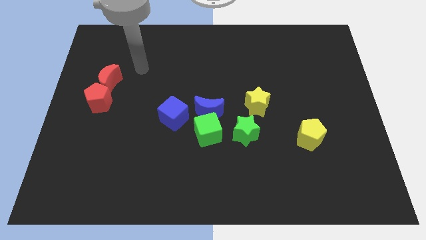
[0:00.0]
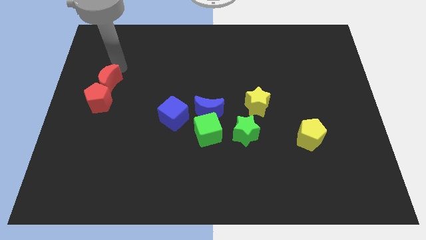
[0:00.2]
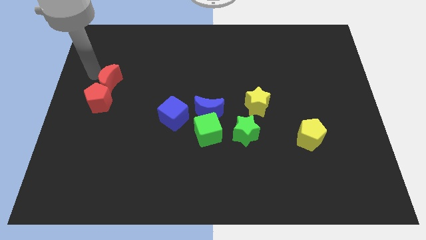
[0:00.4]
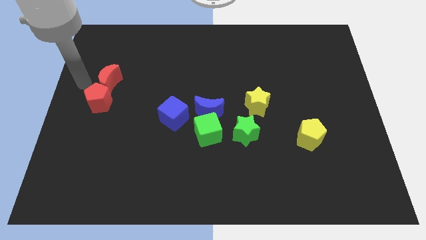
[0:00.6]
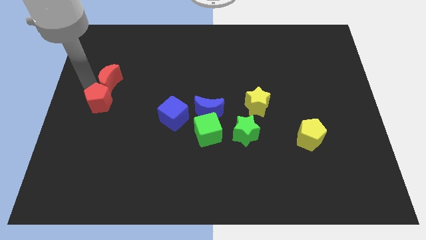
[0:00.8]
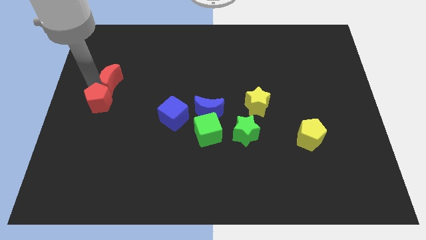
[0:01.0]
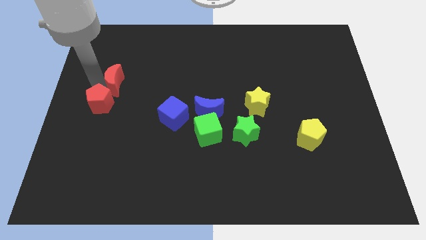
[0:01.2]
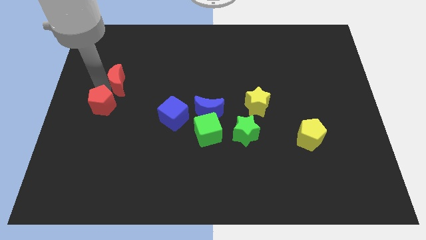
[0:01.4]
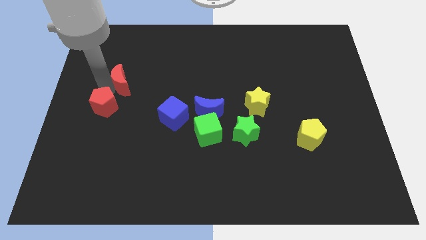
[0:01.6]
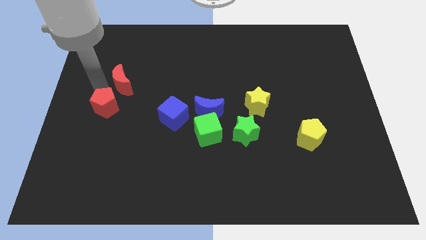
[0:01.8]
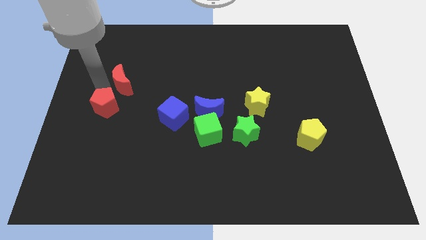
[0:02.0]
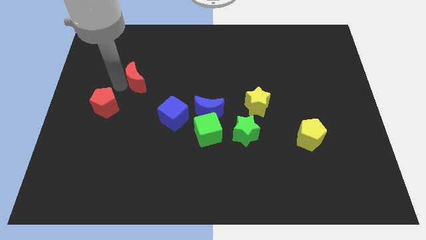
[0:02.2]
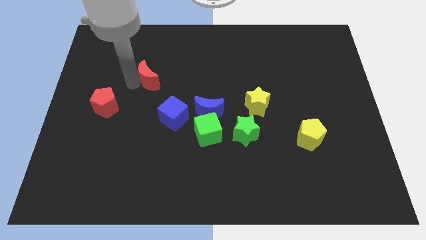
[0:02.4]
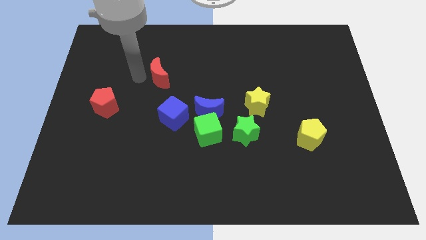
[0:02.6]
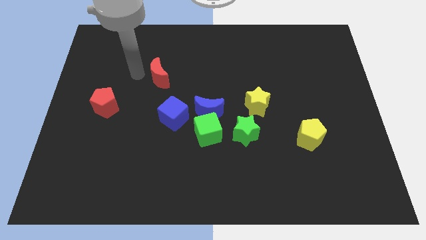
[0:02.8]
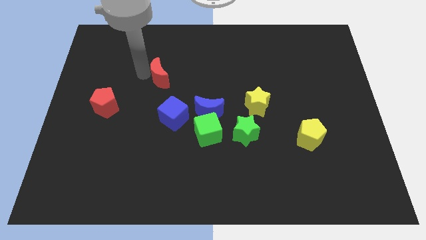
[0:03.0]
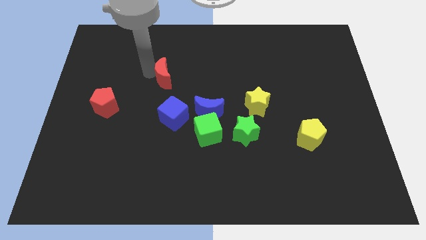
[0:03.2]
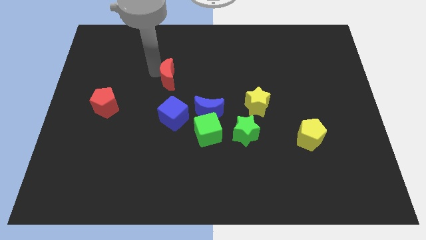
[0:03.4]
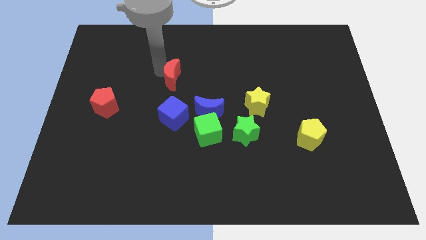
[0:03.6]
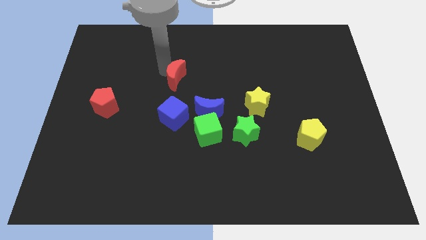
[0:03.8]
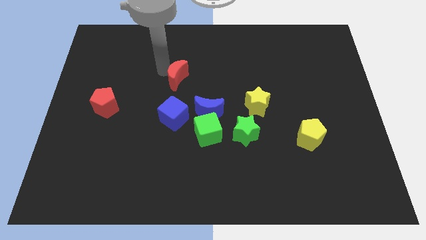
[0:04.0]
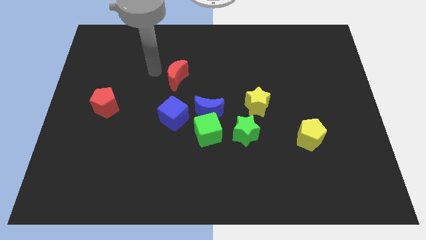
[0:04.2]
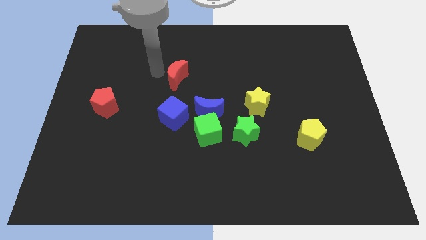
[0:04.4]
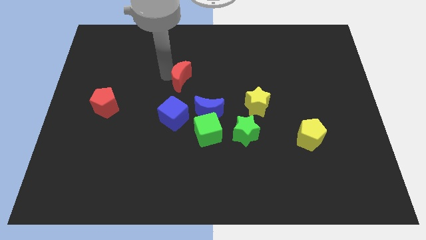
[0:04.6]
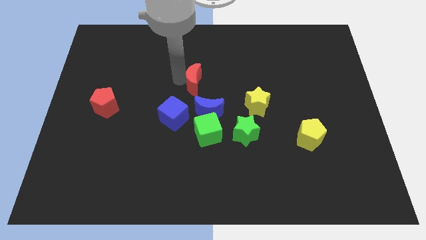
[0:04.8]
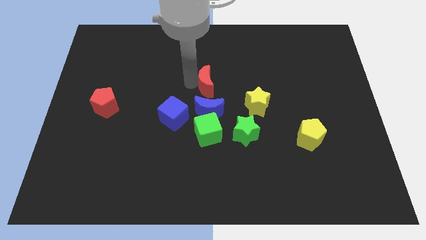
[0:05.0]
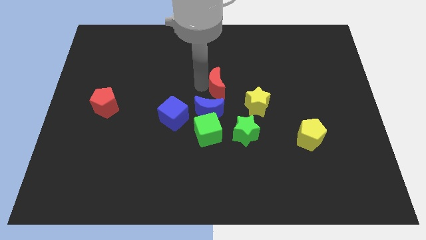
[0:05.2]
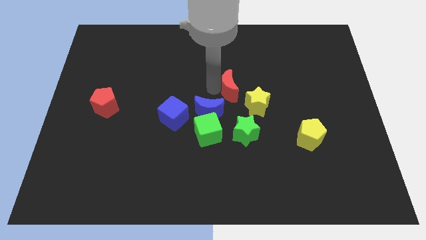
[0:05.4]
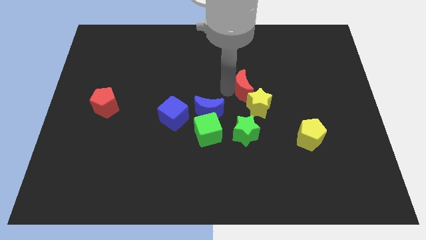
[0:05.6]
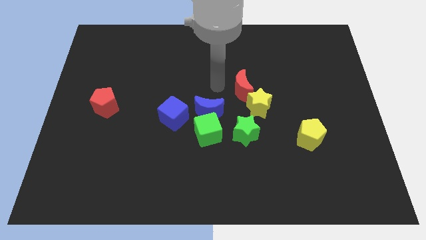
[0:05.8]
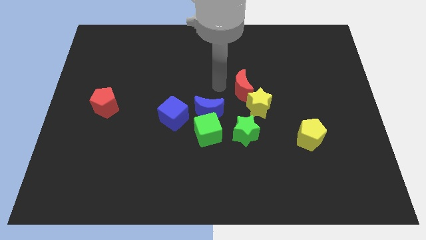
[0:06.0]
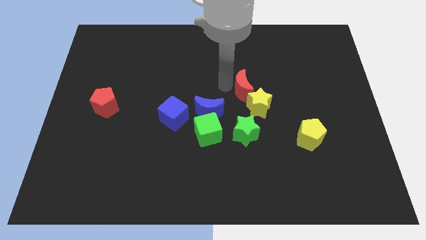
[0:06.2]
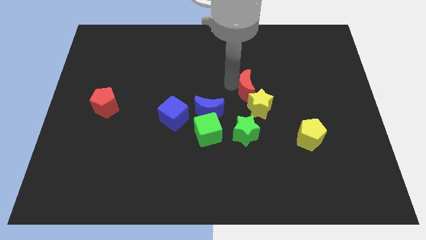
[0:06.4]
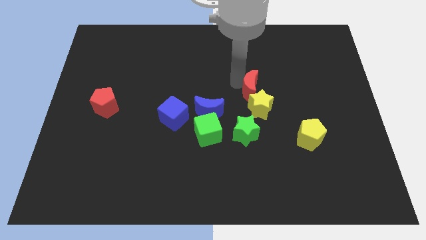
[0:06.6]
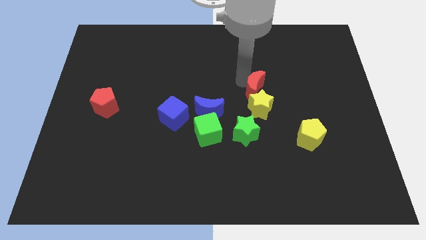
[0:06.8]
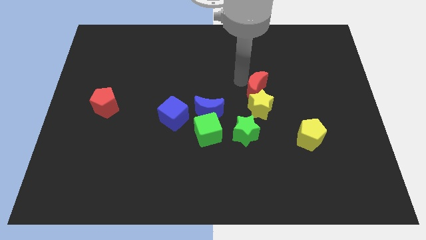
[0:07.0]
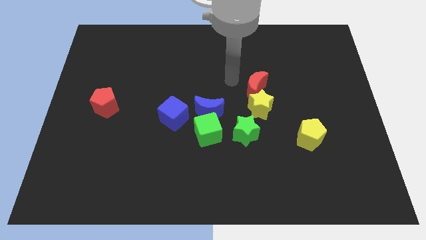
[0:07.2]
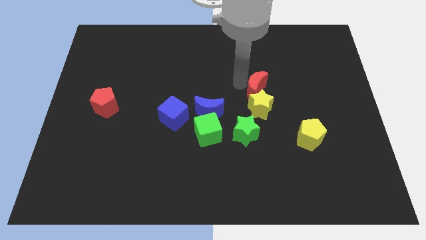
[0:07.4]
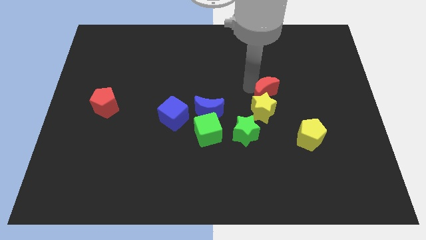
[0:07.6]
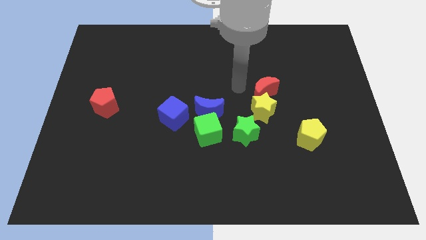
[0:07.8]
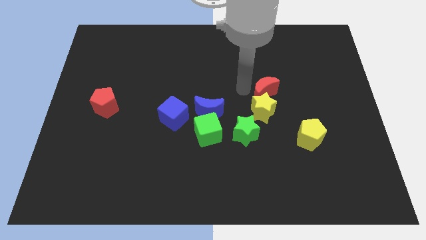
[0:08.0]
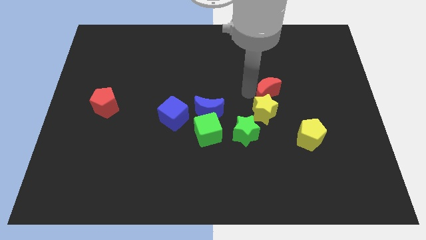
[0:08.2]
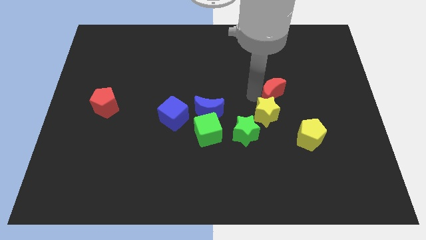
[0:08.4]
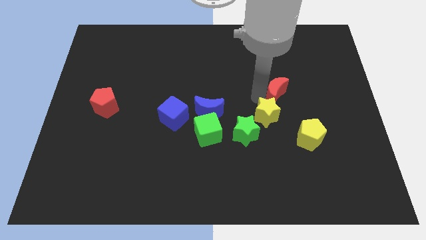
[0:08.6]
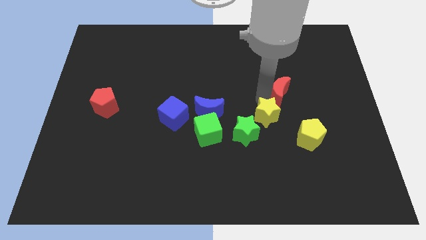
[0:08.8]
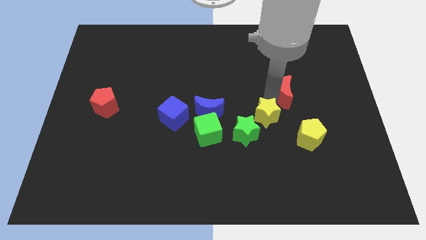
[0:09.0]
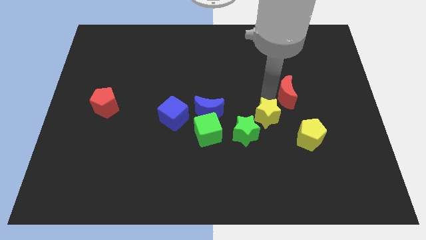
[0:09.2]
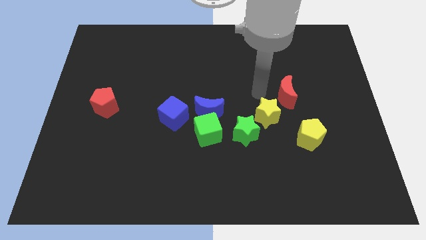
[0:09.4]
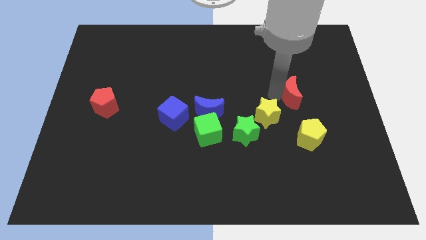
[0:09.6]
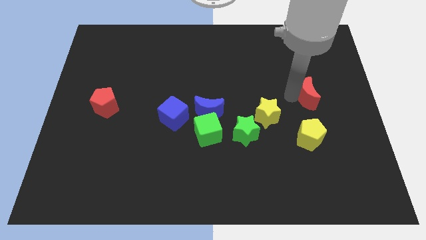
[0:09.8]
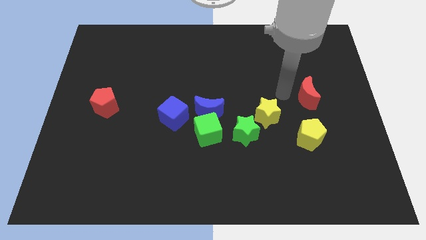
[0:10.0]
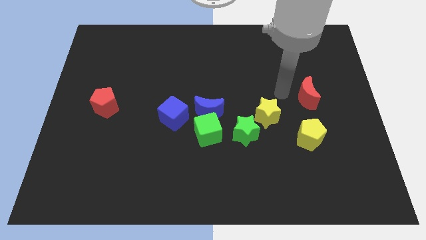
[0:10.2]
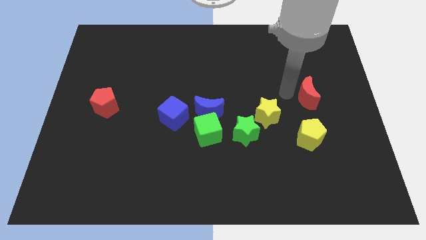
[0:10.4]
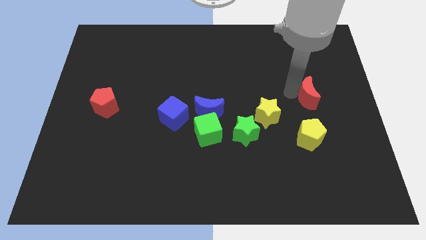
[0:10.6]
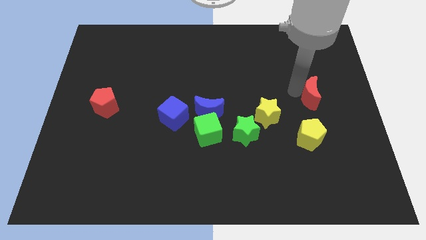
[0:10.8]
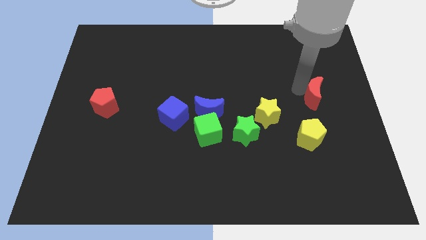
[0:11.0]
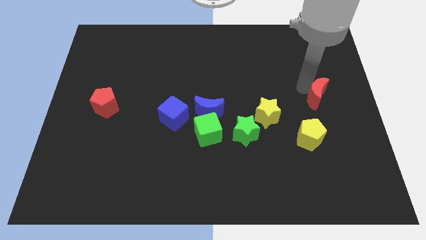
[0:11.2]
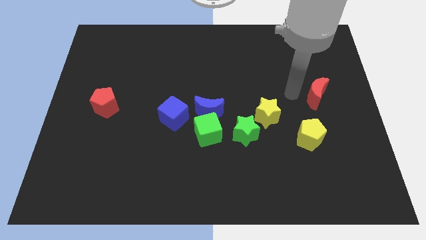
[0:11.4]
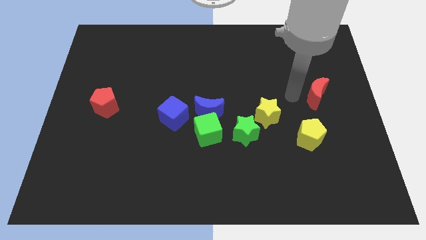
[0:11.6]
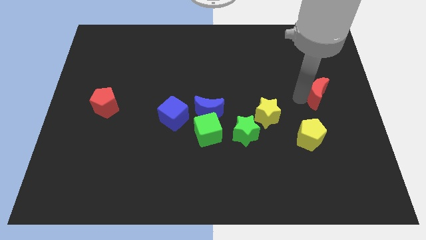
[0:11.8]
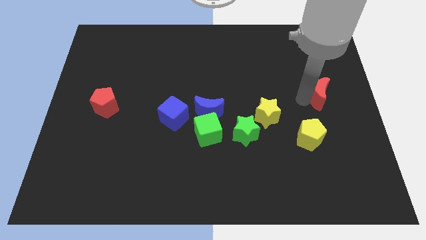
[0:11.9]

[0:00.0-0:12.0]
put the red moon to the center right

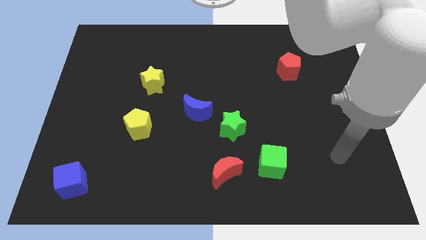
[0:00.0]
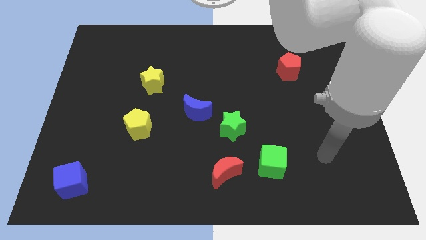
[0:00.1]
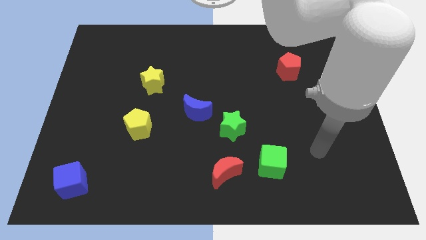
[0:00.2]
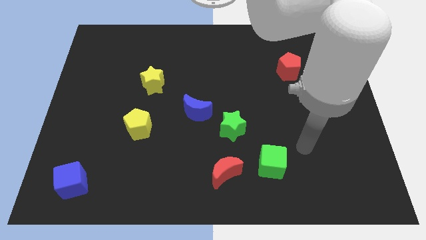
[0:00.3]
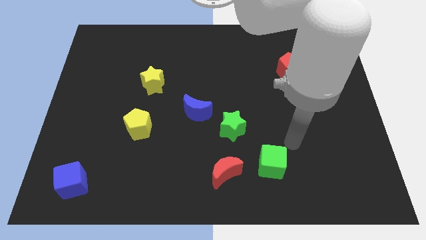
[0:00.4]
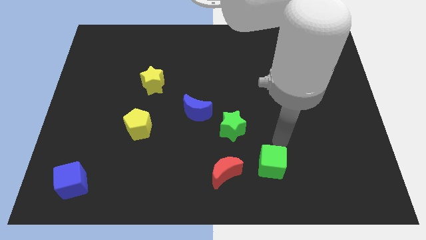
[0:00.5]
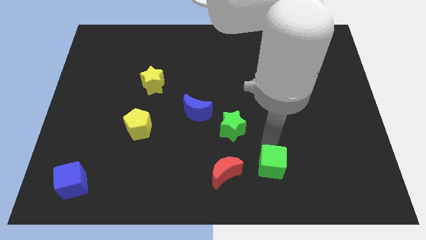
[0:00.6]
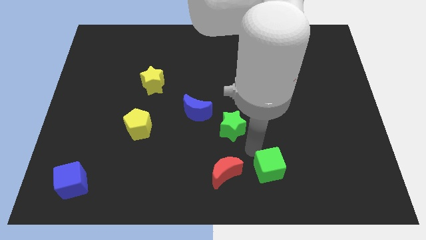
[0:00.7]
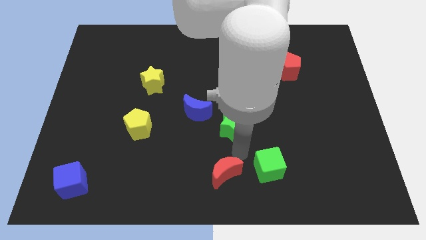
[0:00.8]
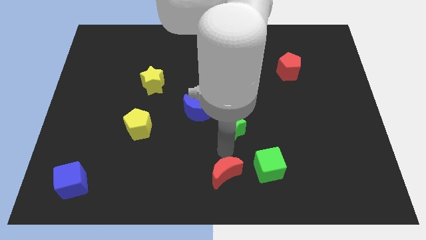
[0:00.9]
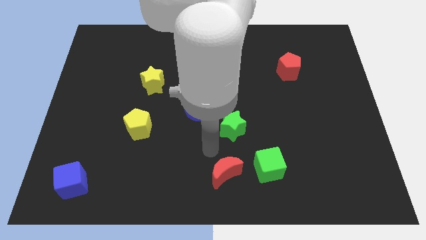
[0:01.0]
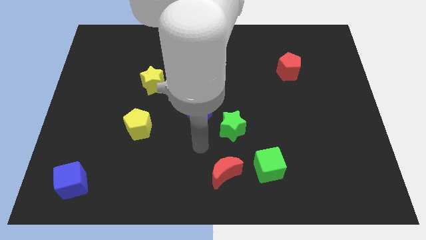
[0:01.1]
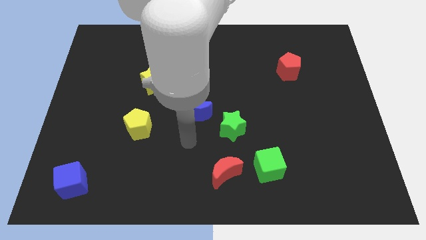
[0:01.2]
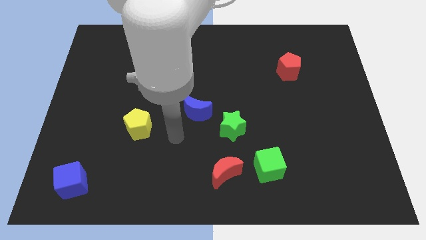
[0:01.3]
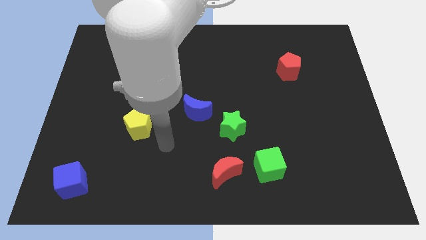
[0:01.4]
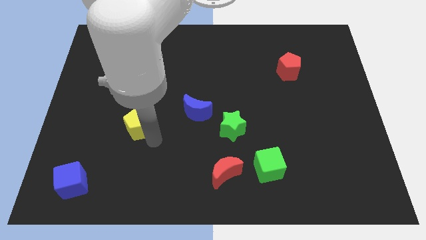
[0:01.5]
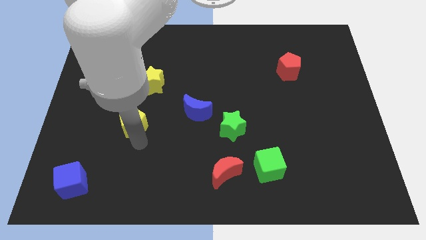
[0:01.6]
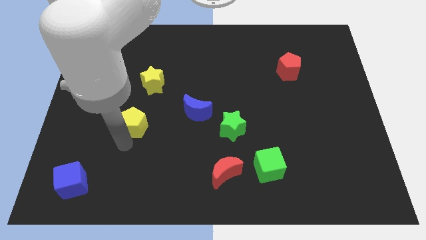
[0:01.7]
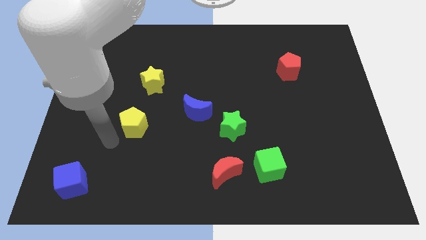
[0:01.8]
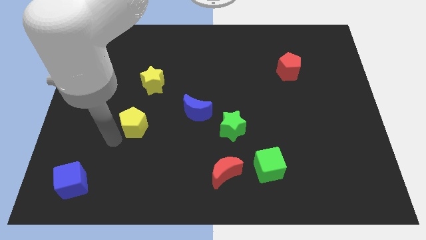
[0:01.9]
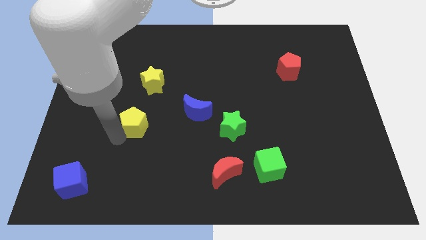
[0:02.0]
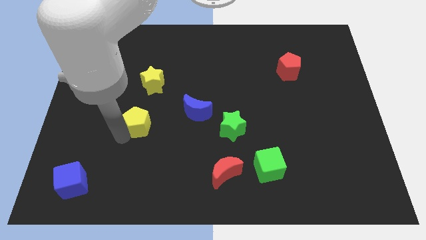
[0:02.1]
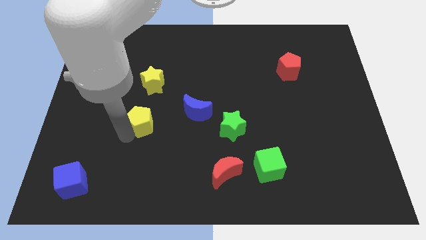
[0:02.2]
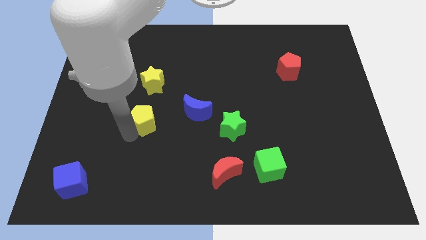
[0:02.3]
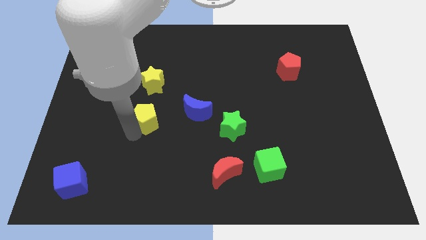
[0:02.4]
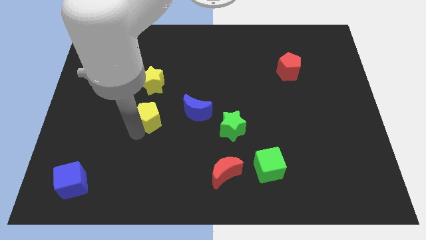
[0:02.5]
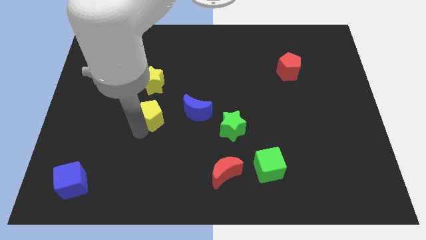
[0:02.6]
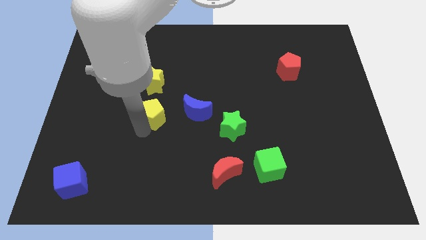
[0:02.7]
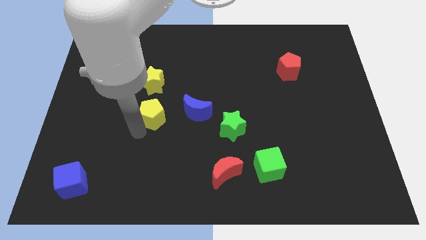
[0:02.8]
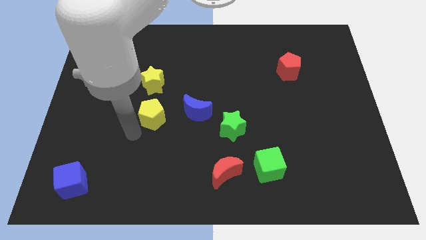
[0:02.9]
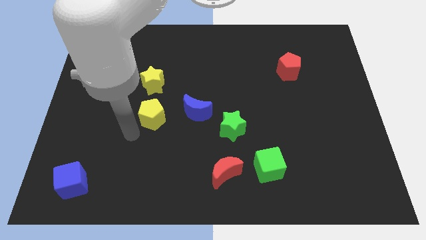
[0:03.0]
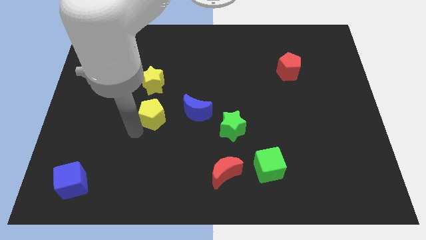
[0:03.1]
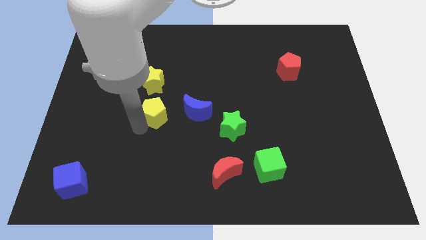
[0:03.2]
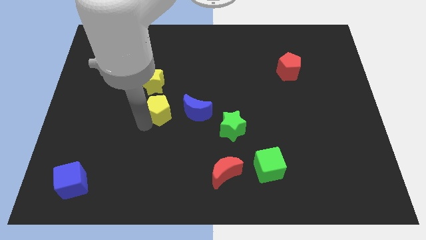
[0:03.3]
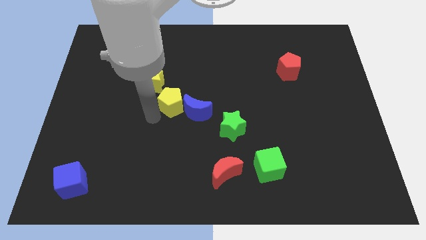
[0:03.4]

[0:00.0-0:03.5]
put the yellow pentagon to the middle
